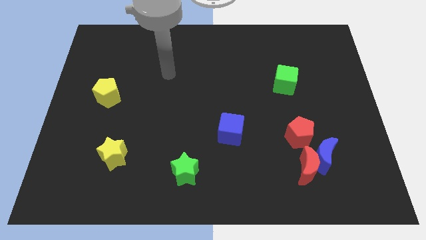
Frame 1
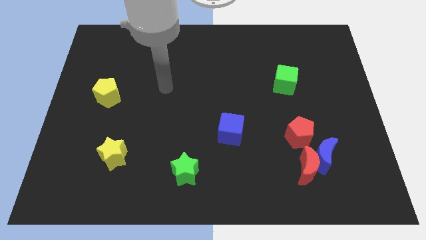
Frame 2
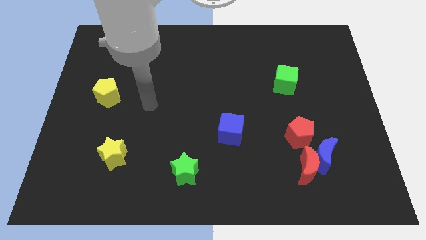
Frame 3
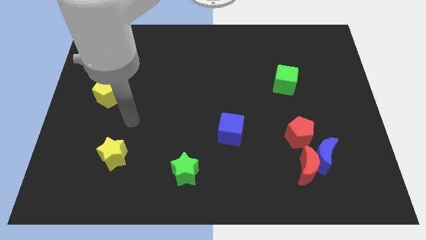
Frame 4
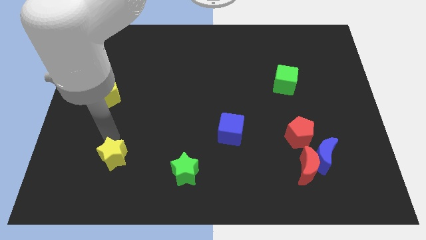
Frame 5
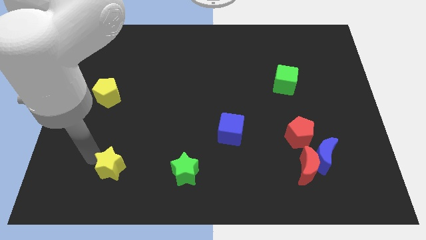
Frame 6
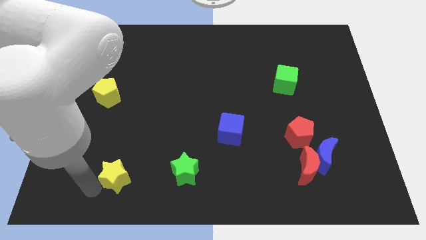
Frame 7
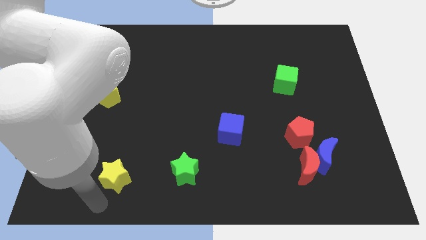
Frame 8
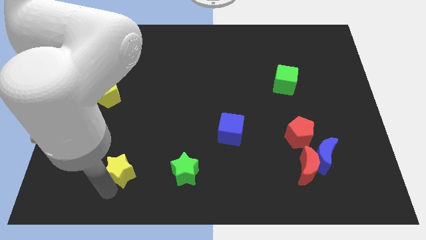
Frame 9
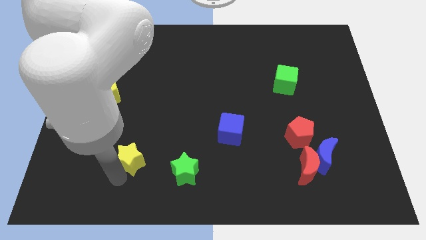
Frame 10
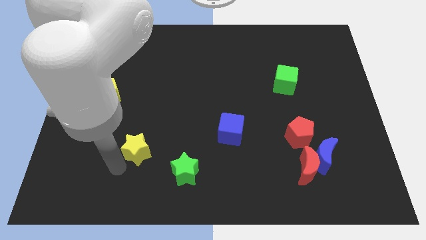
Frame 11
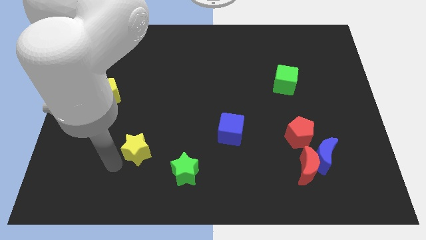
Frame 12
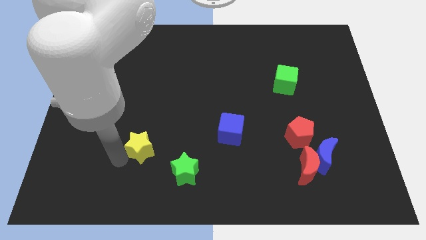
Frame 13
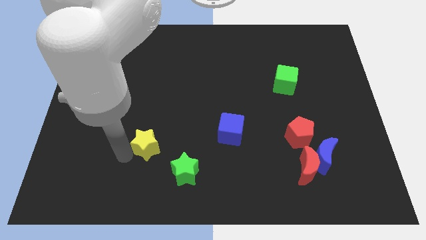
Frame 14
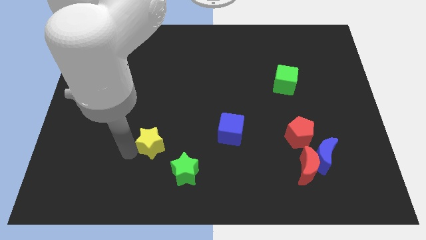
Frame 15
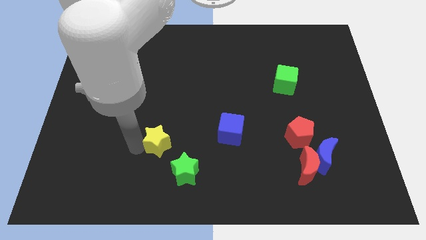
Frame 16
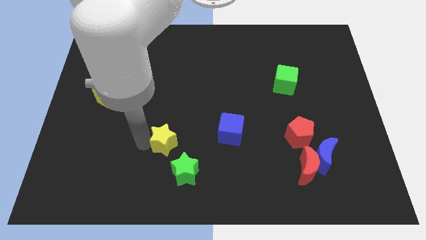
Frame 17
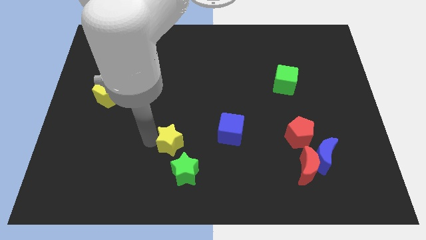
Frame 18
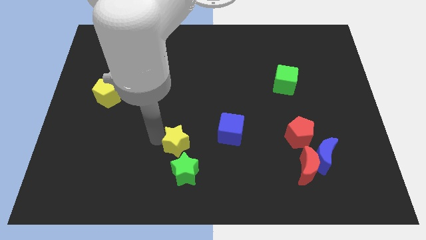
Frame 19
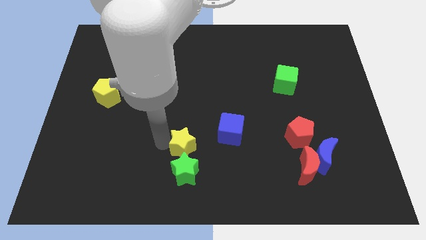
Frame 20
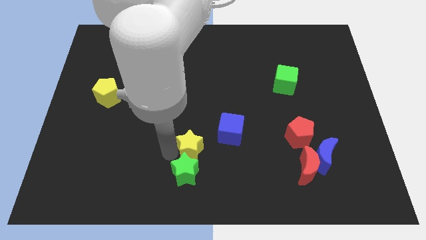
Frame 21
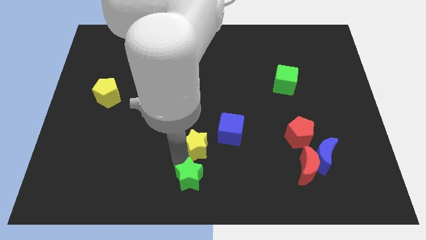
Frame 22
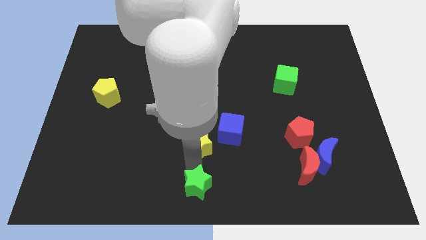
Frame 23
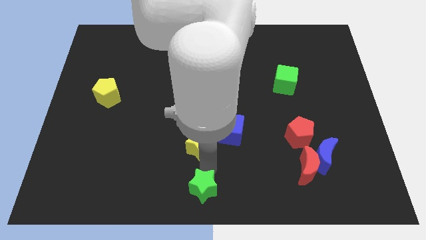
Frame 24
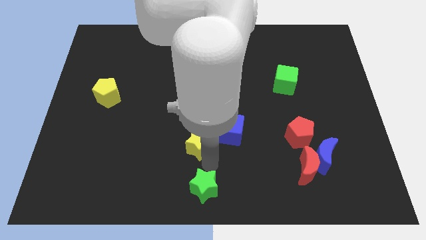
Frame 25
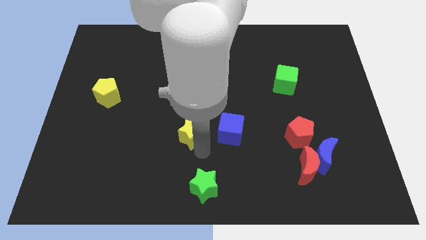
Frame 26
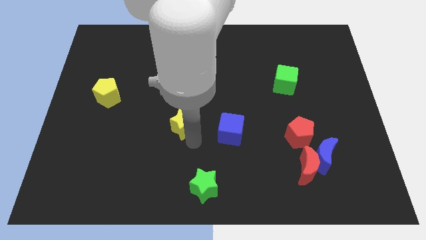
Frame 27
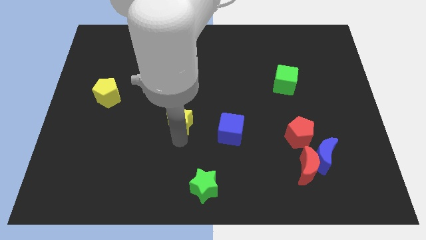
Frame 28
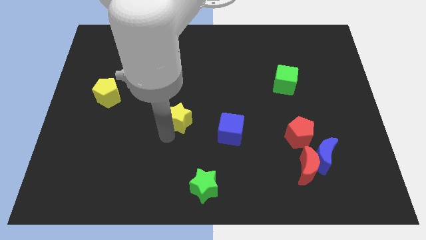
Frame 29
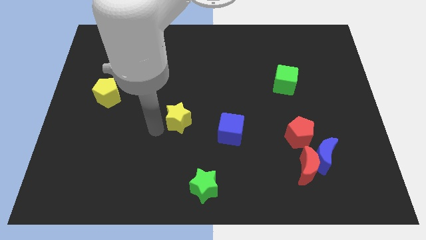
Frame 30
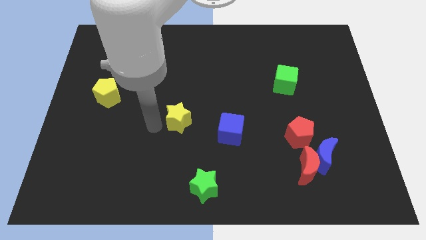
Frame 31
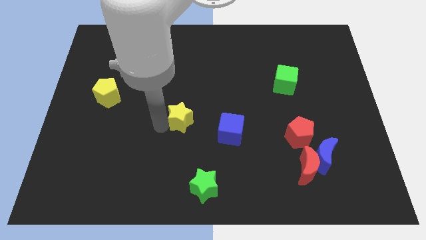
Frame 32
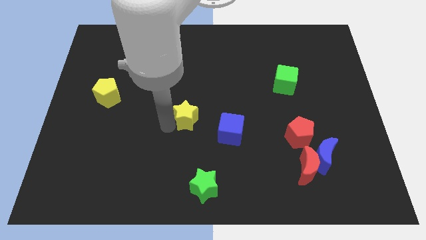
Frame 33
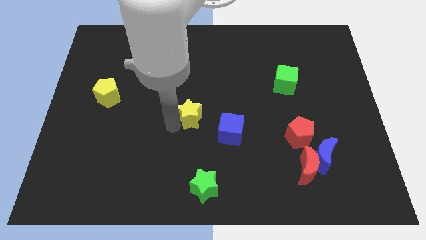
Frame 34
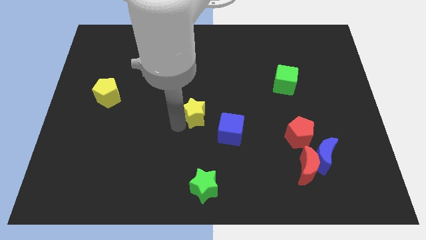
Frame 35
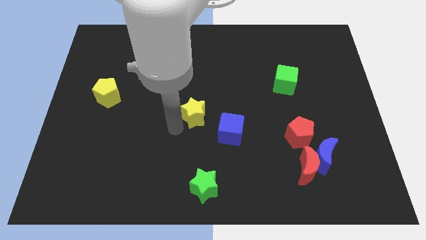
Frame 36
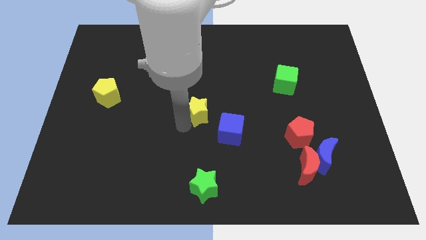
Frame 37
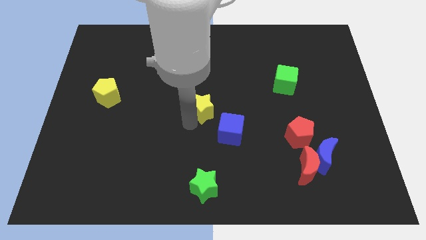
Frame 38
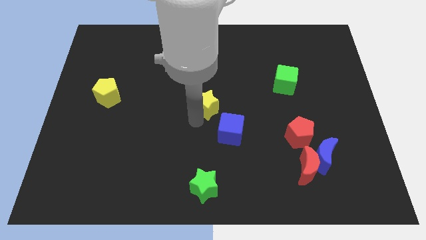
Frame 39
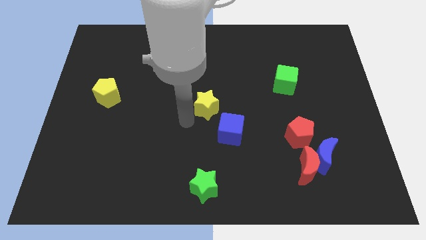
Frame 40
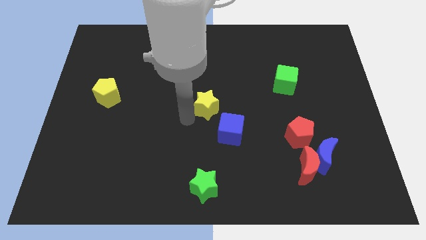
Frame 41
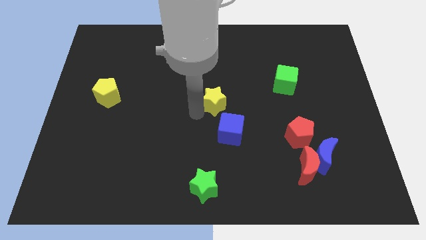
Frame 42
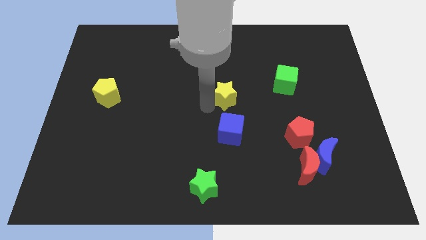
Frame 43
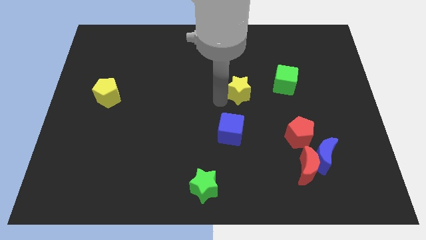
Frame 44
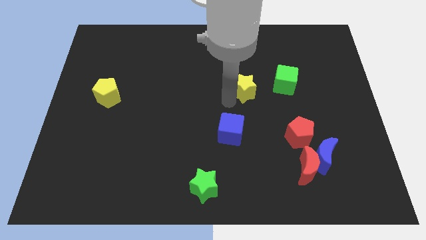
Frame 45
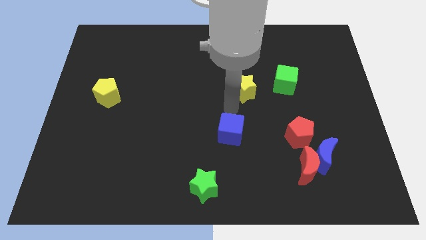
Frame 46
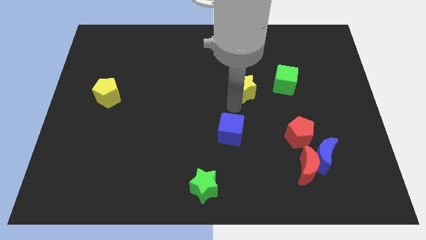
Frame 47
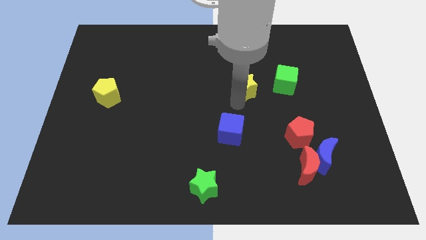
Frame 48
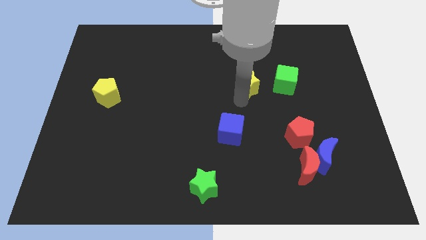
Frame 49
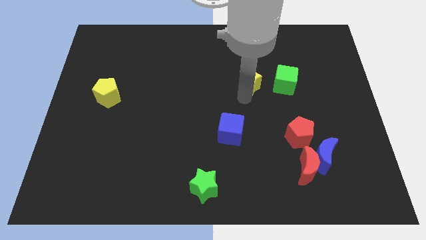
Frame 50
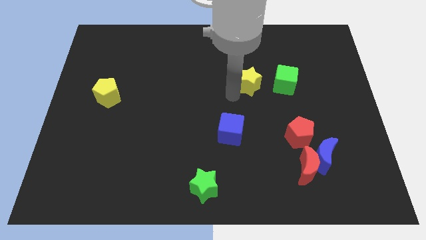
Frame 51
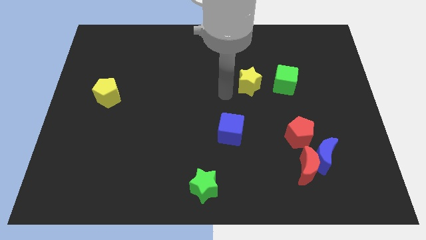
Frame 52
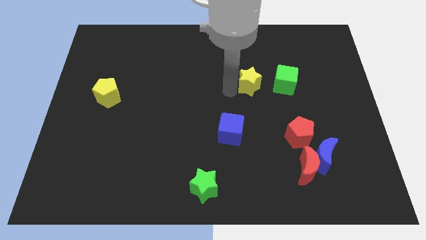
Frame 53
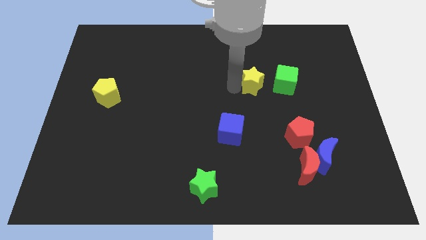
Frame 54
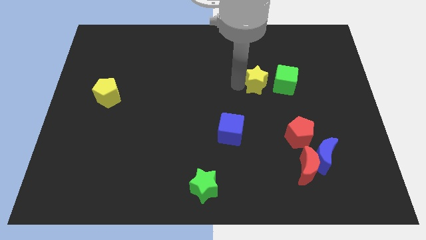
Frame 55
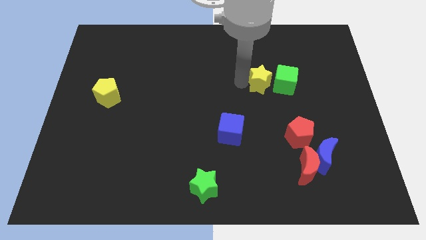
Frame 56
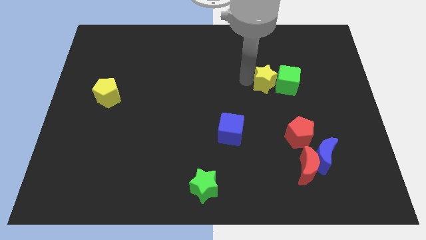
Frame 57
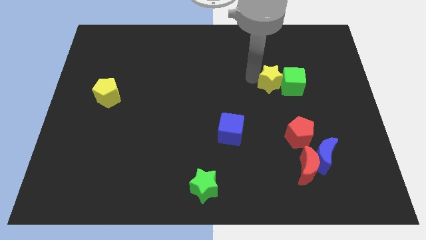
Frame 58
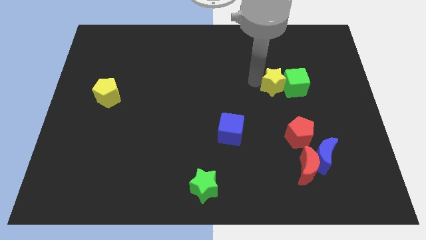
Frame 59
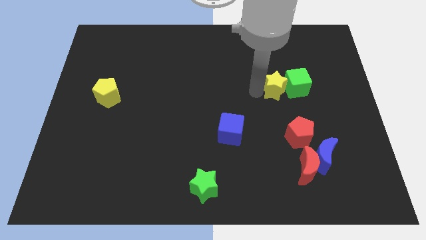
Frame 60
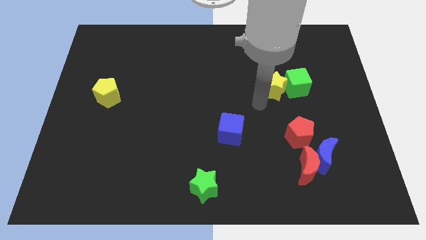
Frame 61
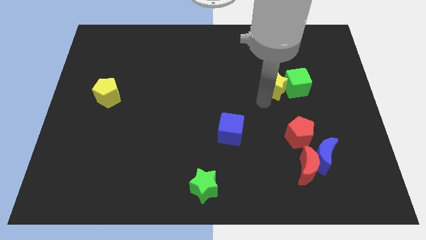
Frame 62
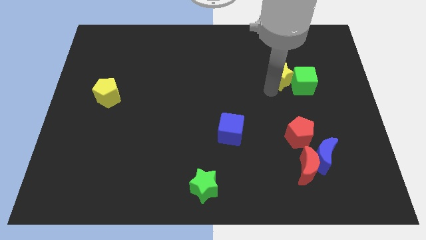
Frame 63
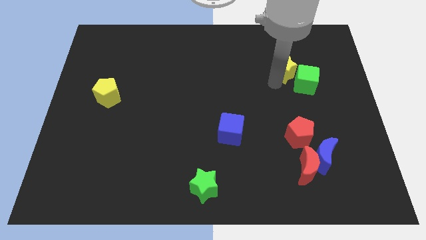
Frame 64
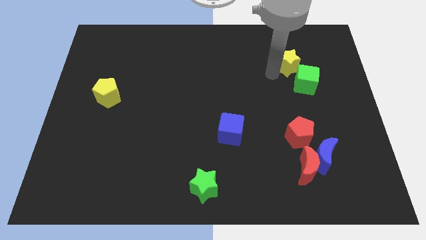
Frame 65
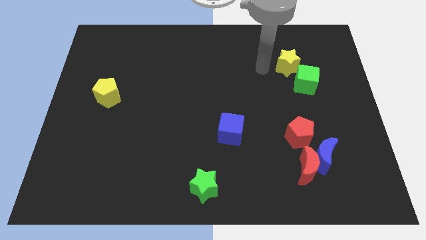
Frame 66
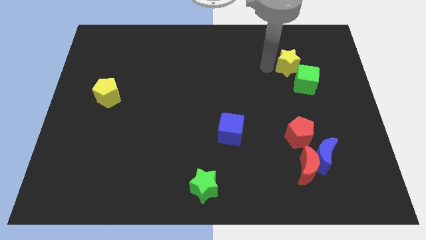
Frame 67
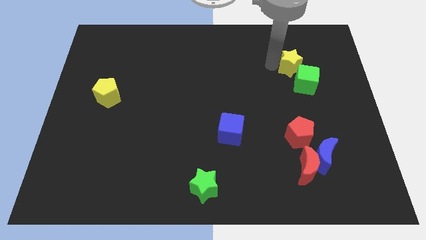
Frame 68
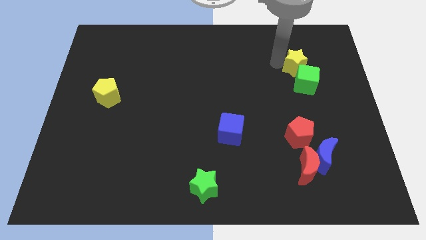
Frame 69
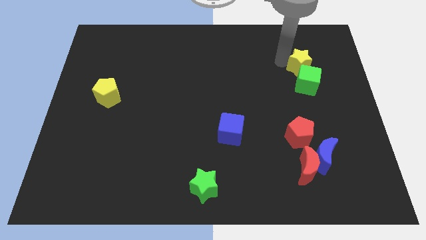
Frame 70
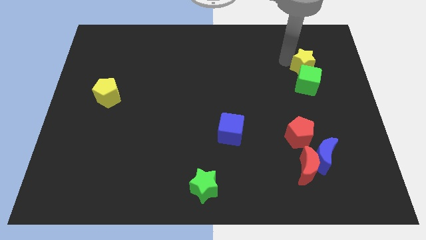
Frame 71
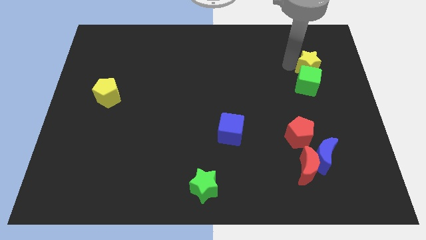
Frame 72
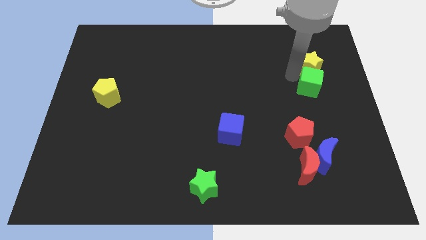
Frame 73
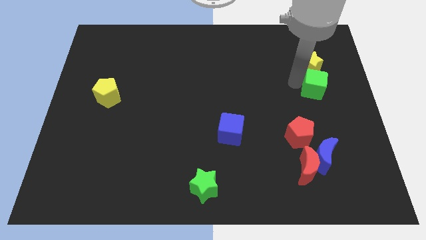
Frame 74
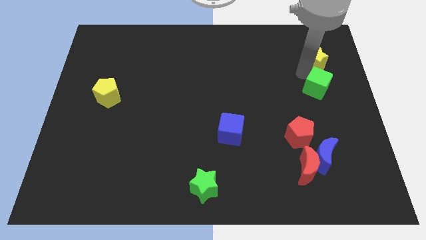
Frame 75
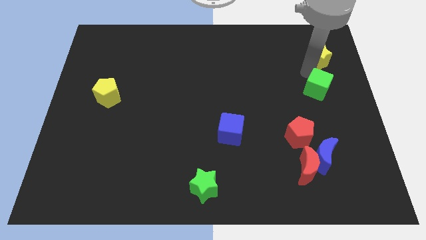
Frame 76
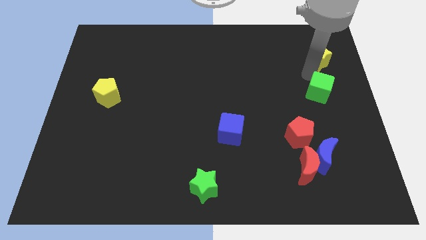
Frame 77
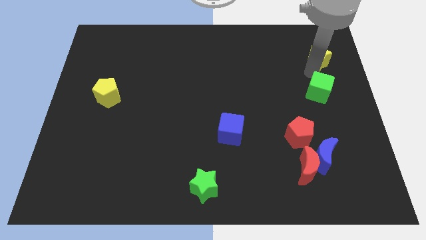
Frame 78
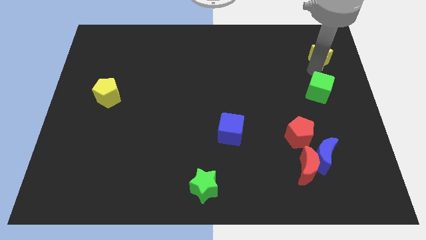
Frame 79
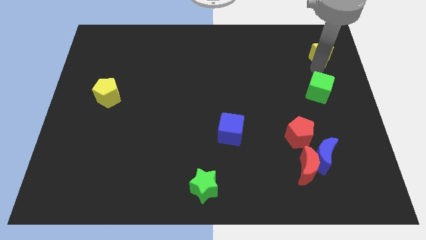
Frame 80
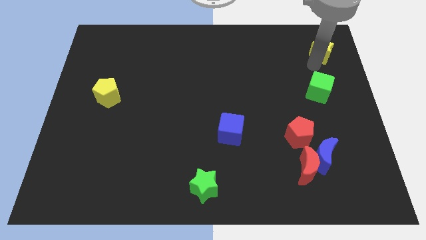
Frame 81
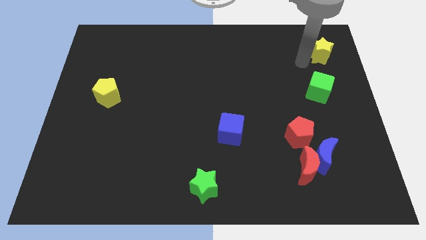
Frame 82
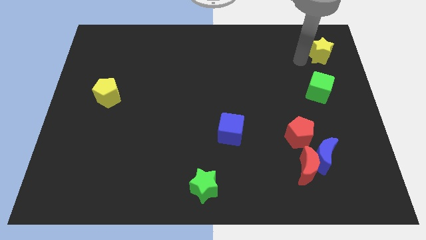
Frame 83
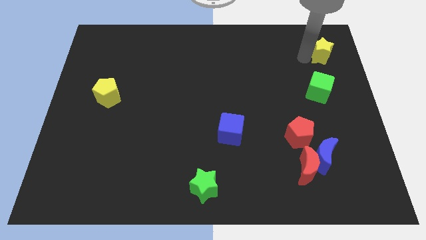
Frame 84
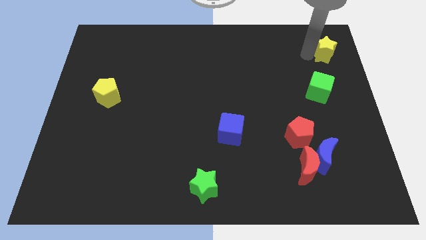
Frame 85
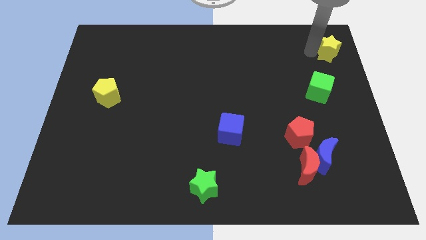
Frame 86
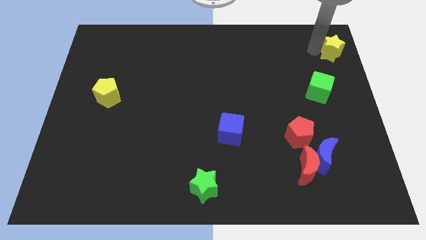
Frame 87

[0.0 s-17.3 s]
push the yellow star to the upper right corner
